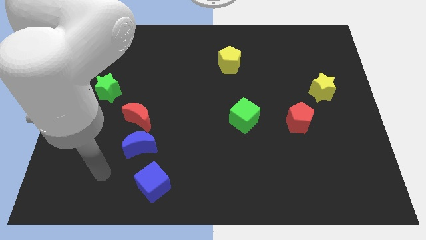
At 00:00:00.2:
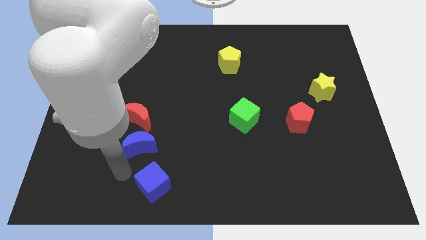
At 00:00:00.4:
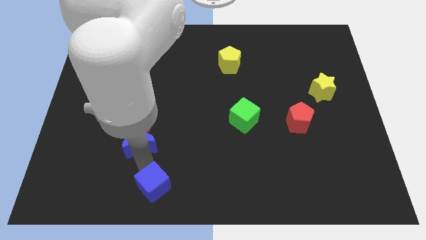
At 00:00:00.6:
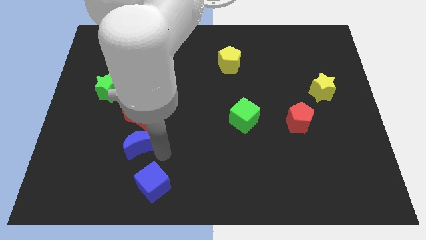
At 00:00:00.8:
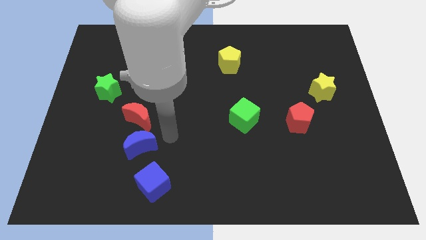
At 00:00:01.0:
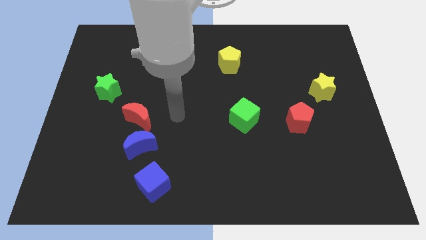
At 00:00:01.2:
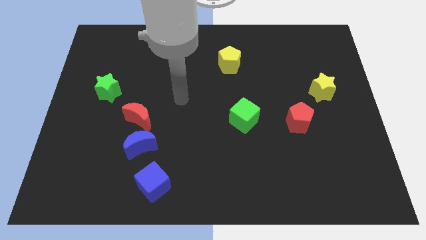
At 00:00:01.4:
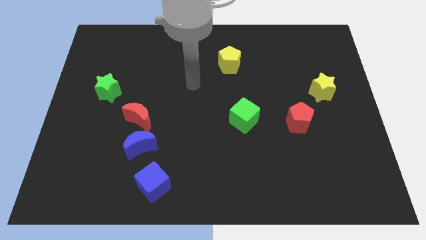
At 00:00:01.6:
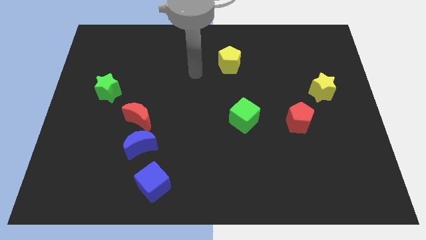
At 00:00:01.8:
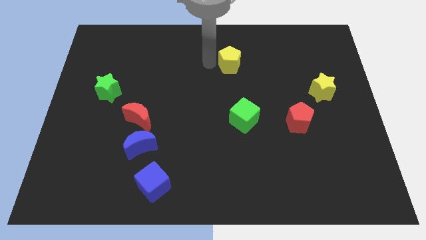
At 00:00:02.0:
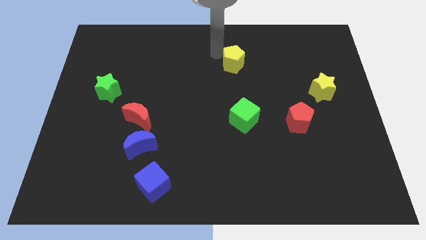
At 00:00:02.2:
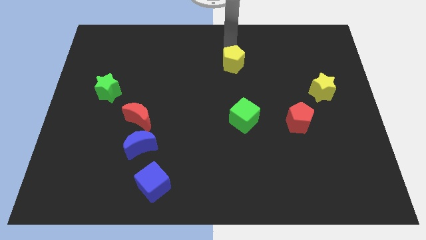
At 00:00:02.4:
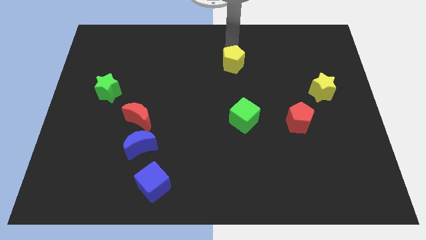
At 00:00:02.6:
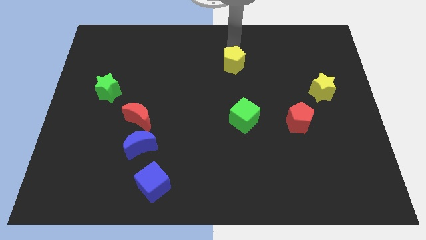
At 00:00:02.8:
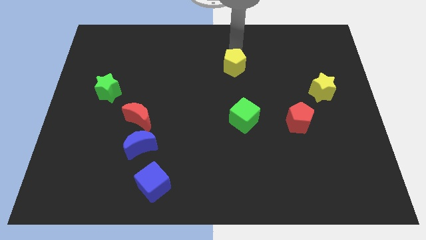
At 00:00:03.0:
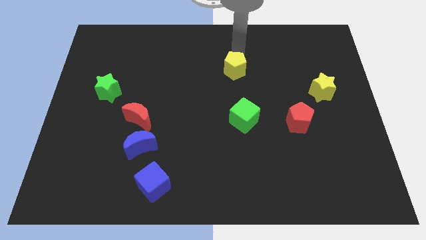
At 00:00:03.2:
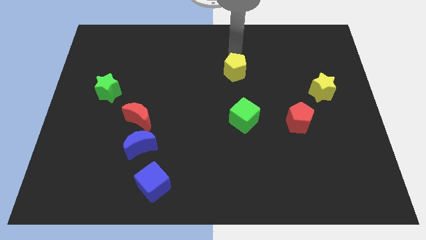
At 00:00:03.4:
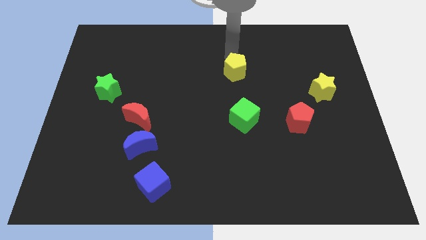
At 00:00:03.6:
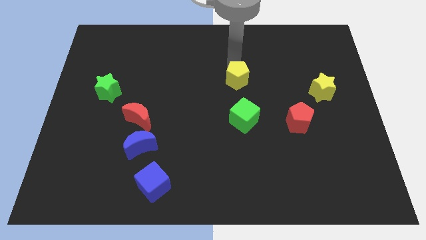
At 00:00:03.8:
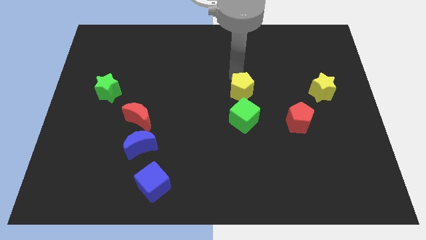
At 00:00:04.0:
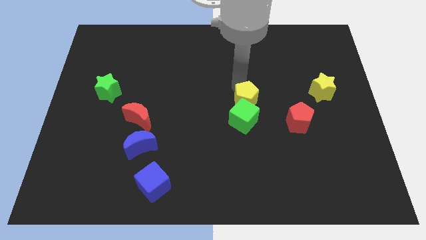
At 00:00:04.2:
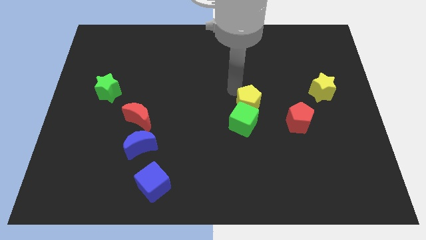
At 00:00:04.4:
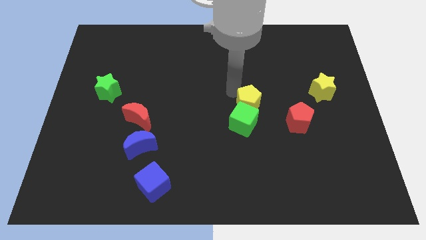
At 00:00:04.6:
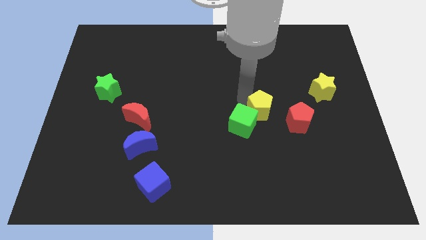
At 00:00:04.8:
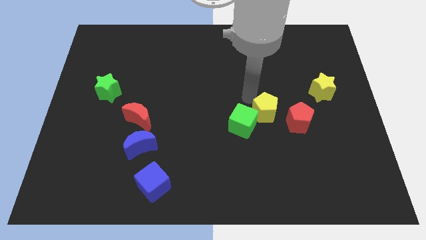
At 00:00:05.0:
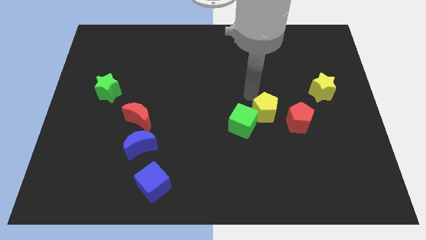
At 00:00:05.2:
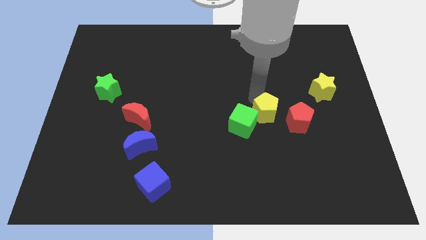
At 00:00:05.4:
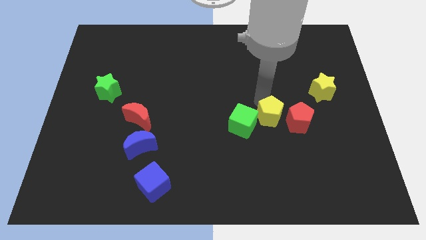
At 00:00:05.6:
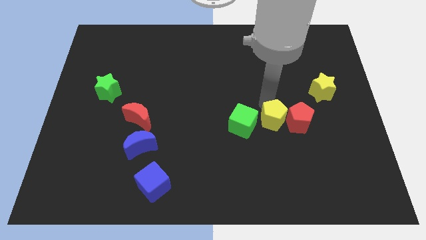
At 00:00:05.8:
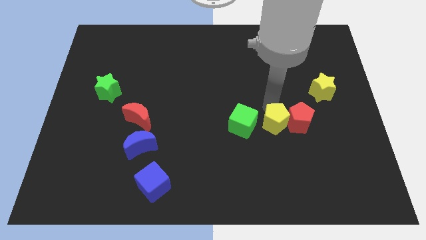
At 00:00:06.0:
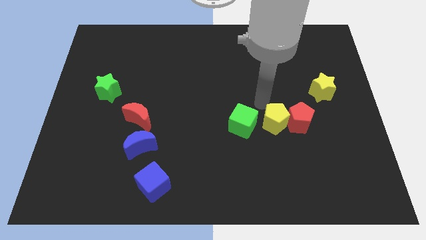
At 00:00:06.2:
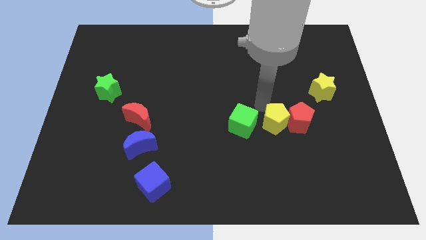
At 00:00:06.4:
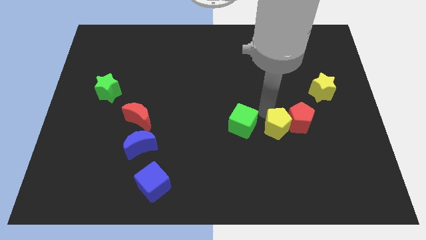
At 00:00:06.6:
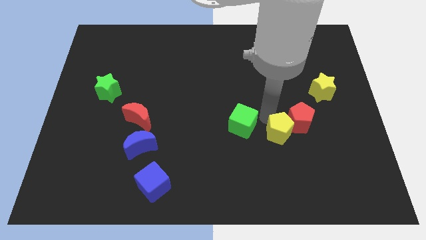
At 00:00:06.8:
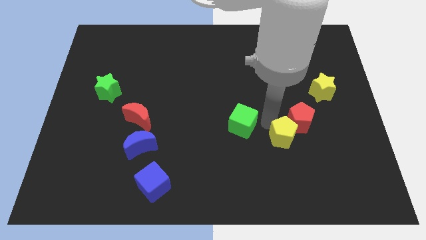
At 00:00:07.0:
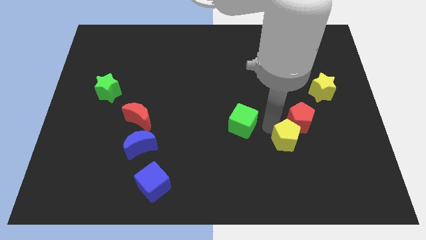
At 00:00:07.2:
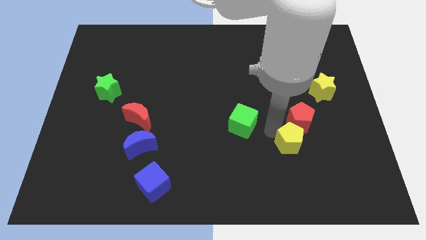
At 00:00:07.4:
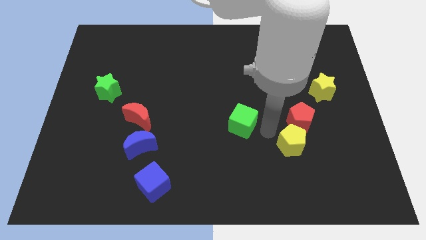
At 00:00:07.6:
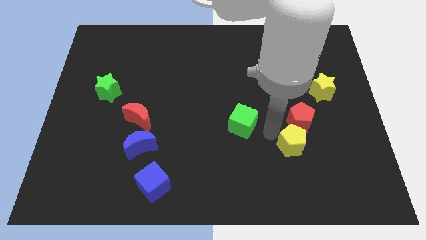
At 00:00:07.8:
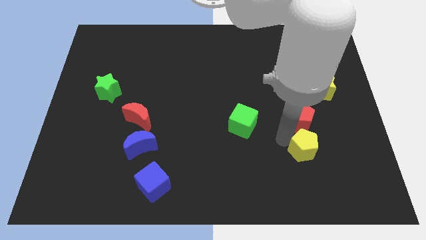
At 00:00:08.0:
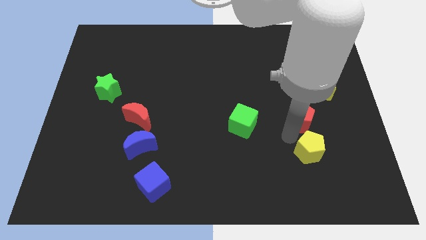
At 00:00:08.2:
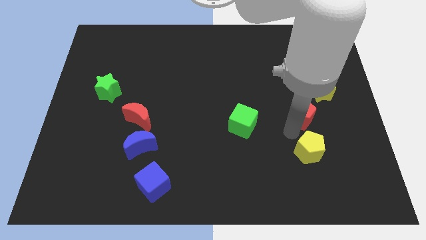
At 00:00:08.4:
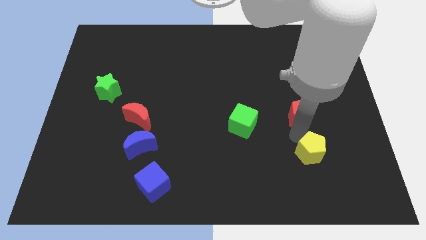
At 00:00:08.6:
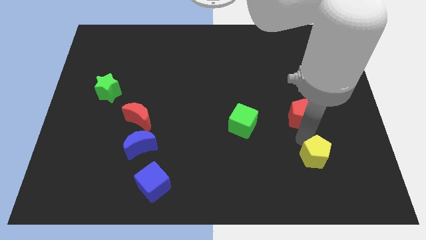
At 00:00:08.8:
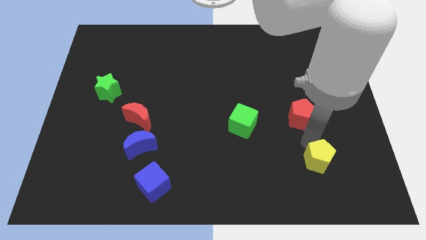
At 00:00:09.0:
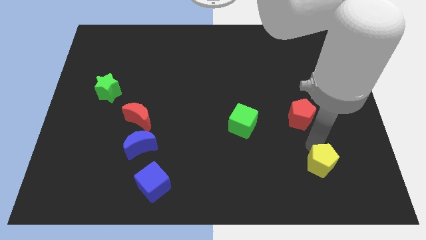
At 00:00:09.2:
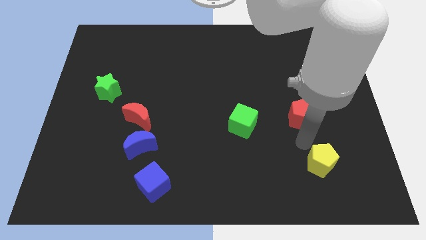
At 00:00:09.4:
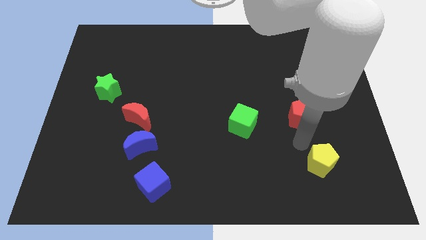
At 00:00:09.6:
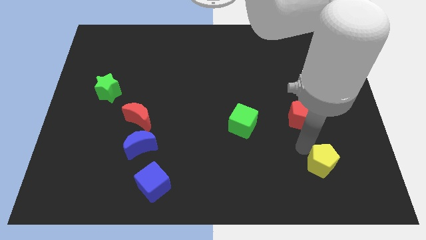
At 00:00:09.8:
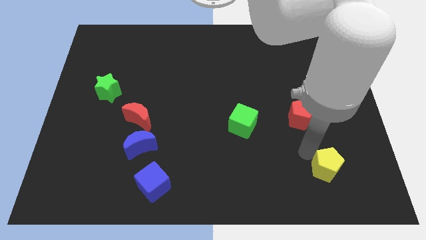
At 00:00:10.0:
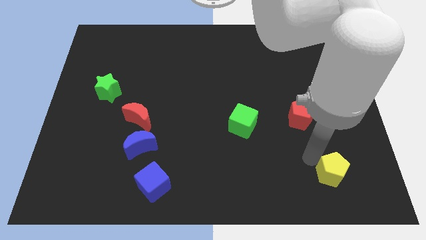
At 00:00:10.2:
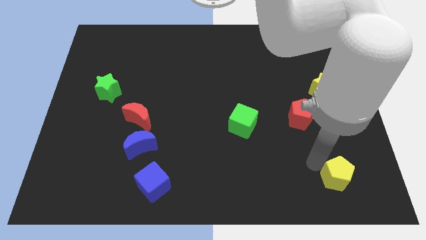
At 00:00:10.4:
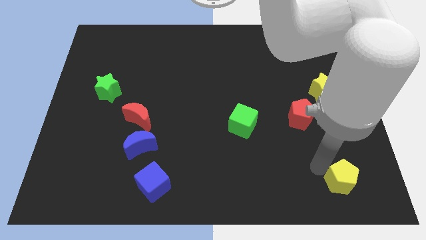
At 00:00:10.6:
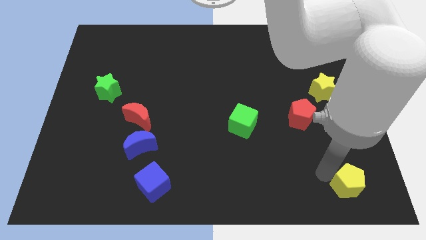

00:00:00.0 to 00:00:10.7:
move the yellow pentagon to the bottom right of the board

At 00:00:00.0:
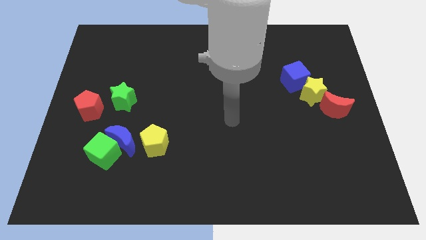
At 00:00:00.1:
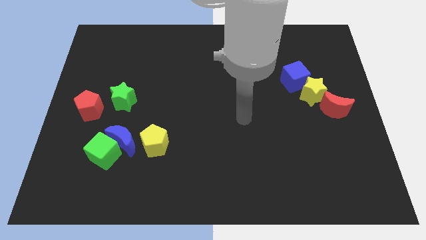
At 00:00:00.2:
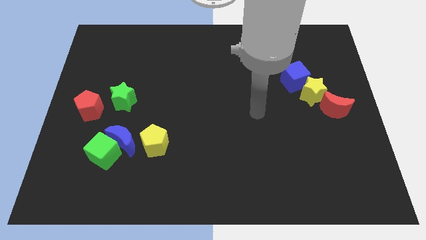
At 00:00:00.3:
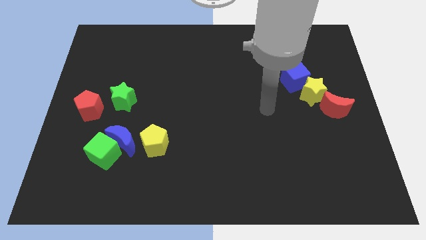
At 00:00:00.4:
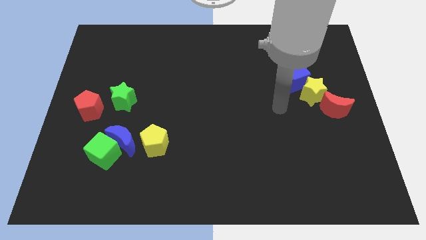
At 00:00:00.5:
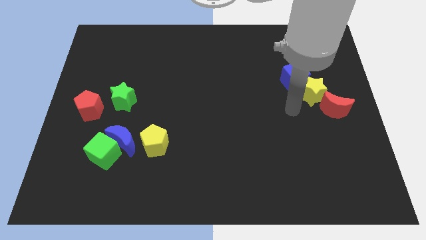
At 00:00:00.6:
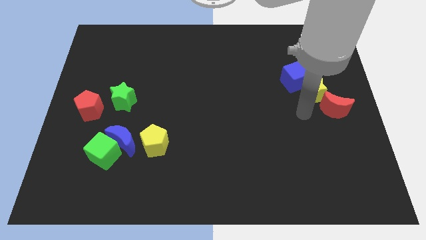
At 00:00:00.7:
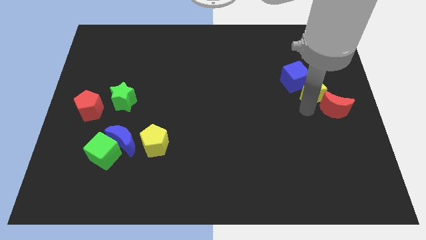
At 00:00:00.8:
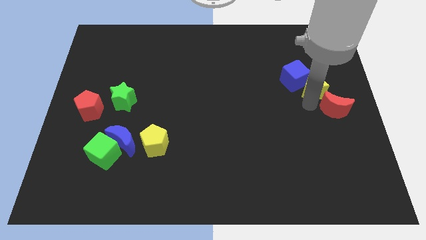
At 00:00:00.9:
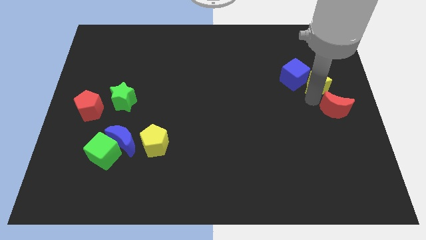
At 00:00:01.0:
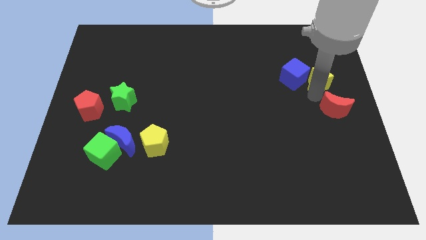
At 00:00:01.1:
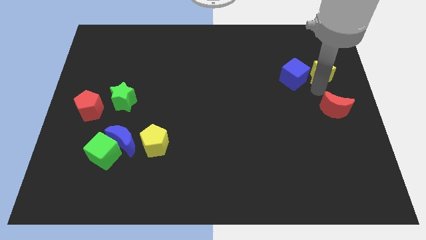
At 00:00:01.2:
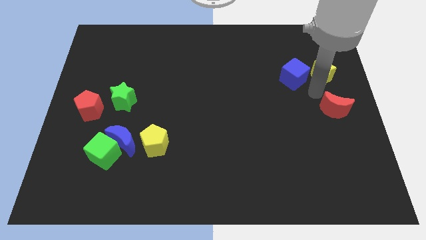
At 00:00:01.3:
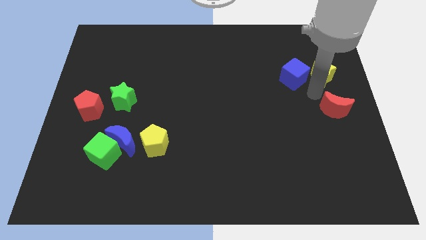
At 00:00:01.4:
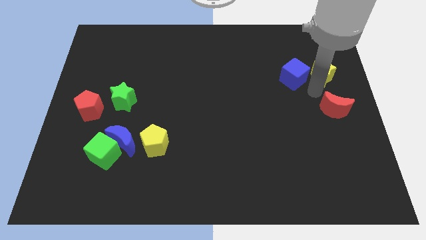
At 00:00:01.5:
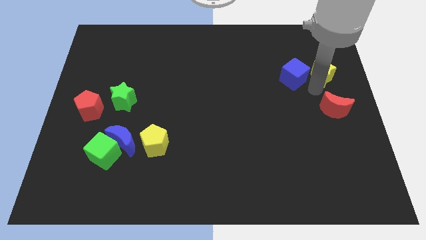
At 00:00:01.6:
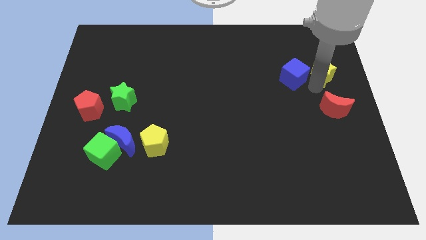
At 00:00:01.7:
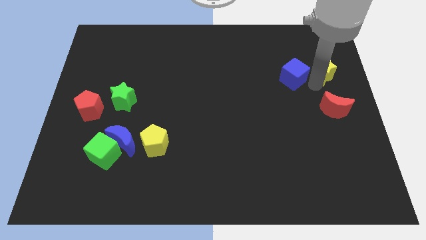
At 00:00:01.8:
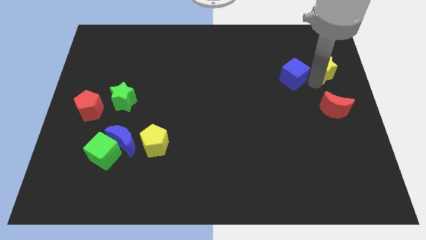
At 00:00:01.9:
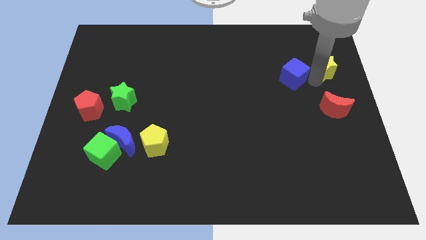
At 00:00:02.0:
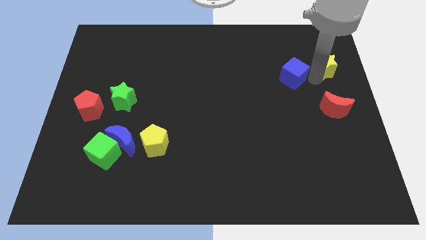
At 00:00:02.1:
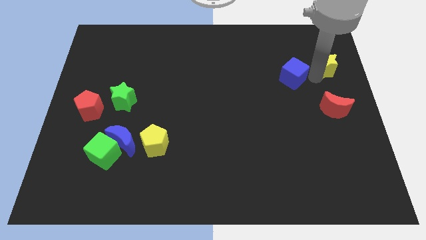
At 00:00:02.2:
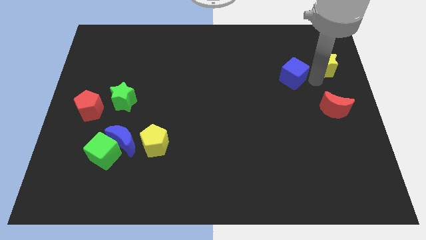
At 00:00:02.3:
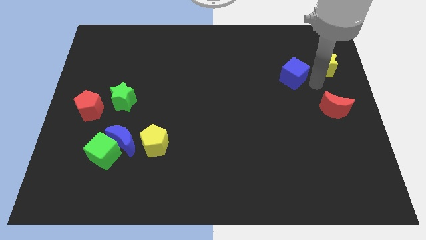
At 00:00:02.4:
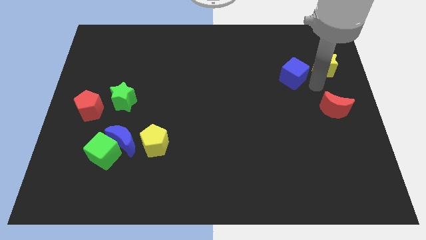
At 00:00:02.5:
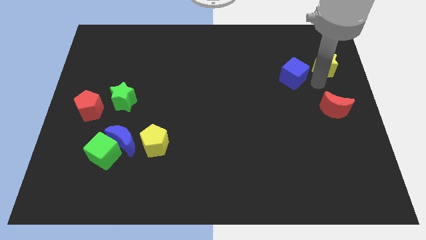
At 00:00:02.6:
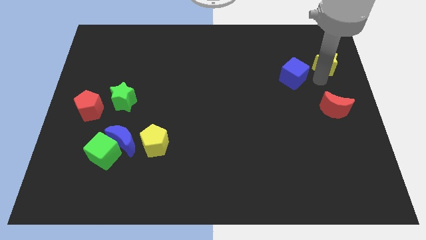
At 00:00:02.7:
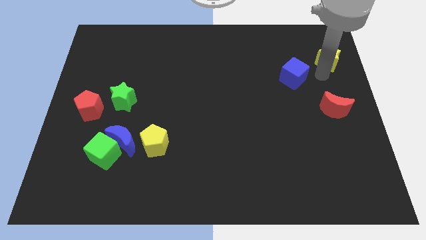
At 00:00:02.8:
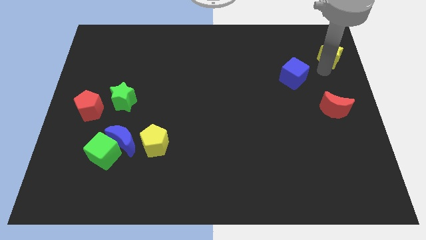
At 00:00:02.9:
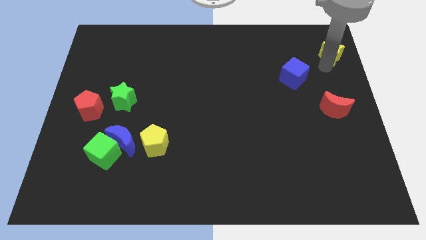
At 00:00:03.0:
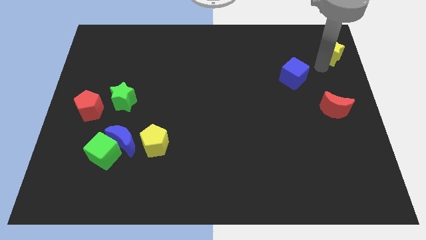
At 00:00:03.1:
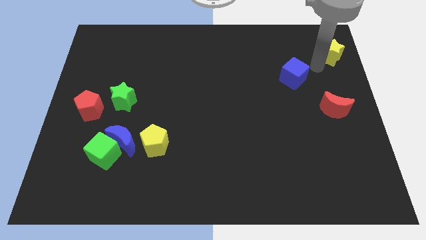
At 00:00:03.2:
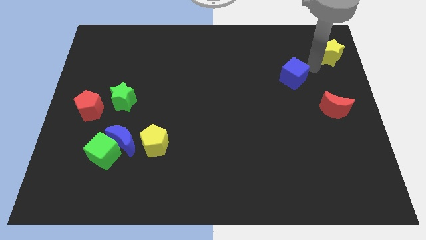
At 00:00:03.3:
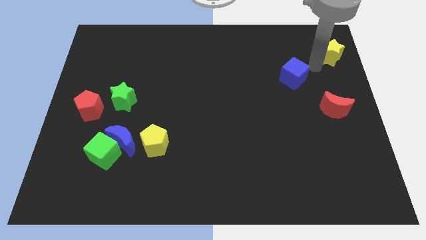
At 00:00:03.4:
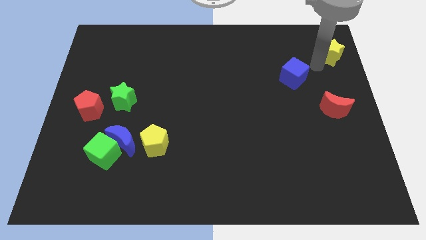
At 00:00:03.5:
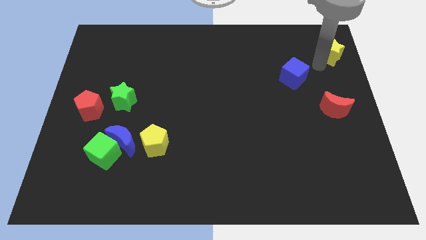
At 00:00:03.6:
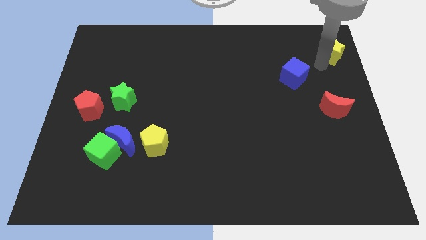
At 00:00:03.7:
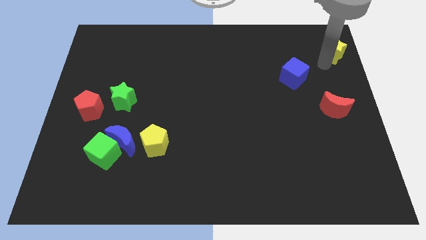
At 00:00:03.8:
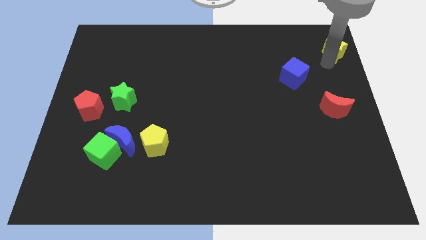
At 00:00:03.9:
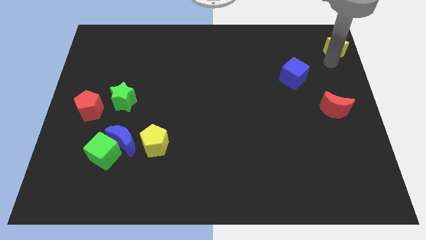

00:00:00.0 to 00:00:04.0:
push the yellow star to the upper right corner
